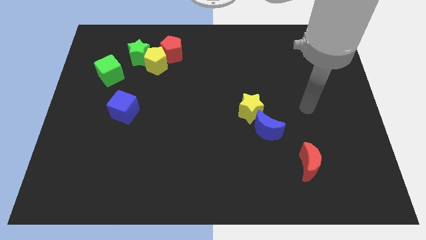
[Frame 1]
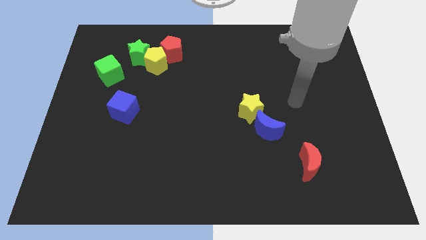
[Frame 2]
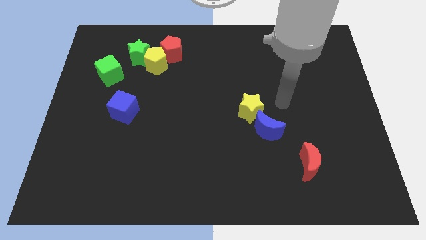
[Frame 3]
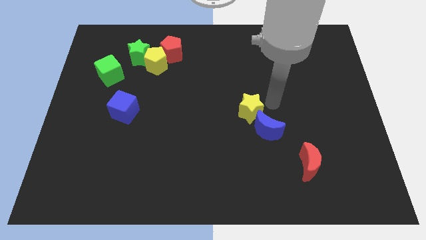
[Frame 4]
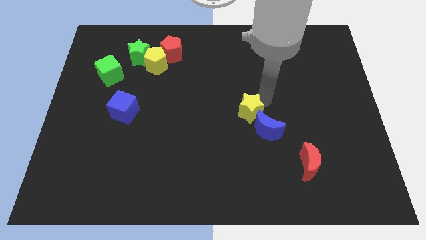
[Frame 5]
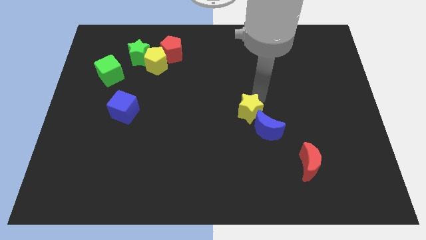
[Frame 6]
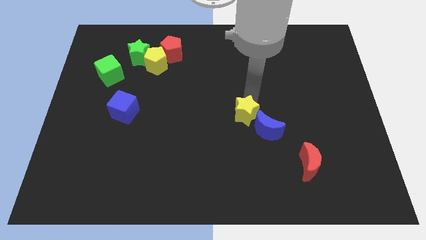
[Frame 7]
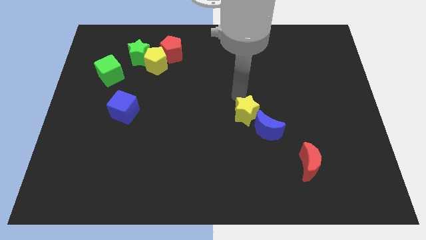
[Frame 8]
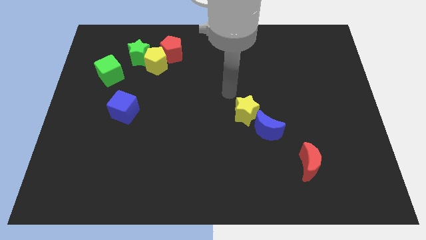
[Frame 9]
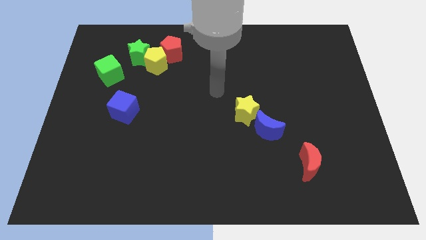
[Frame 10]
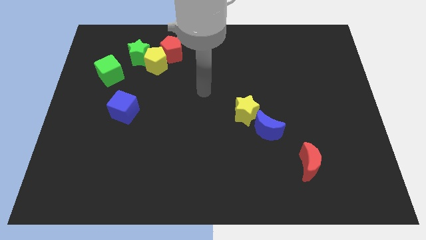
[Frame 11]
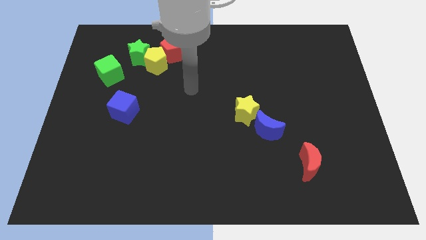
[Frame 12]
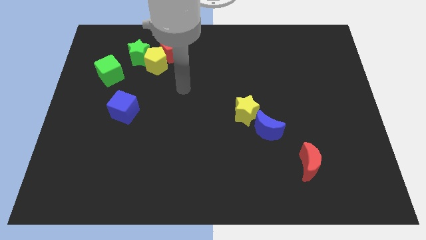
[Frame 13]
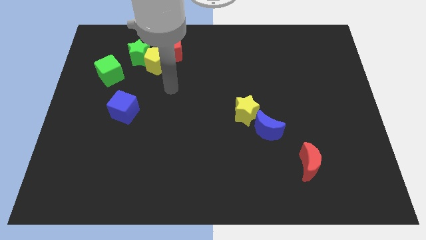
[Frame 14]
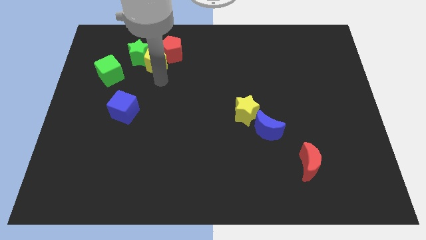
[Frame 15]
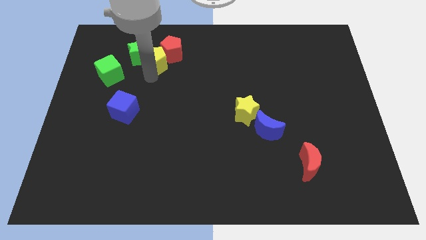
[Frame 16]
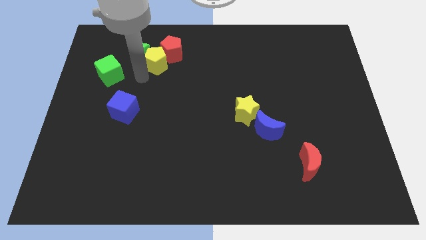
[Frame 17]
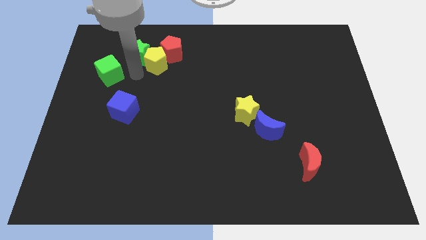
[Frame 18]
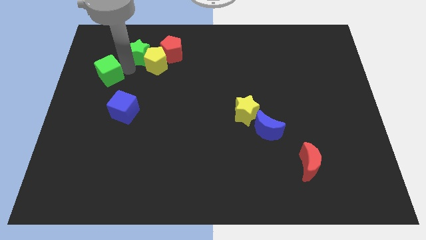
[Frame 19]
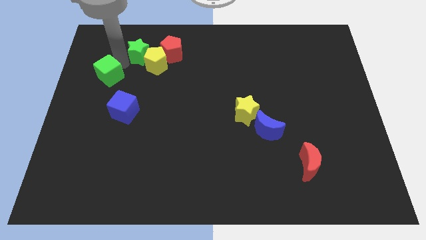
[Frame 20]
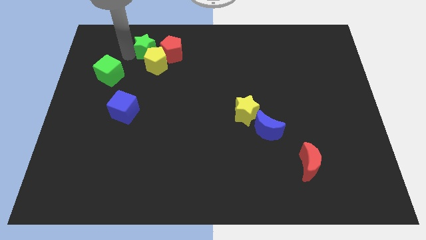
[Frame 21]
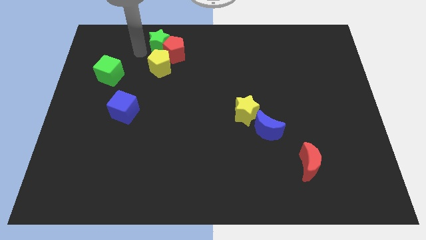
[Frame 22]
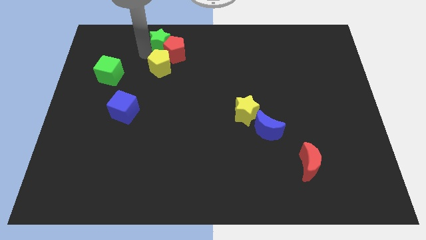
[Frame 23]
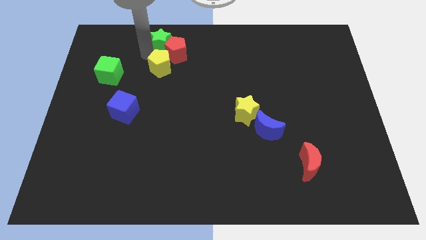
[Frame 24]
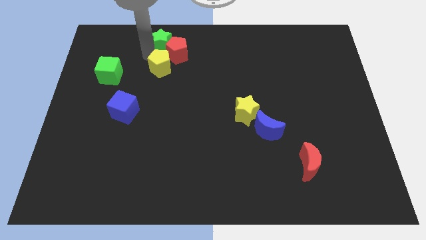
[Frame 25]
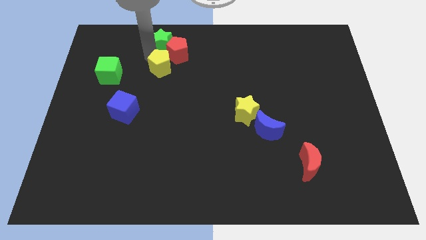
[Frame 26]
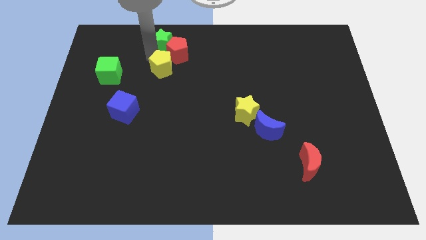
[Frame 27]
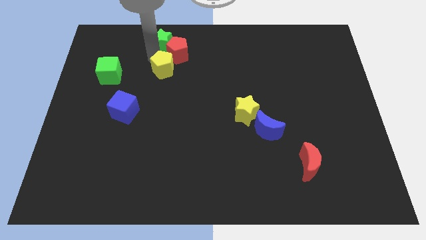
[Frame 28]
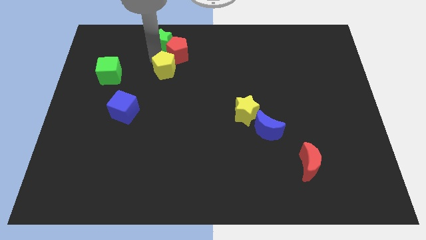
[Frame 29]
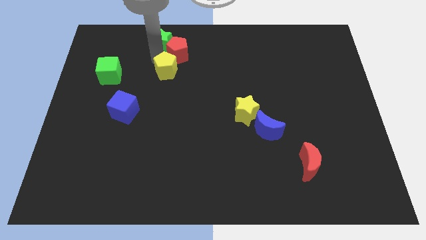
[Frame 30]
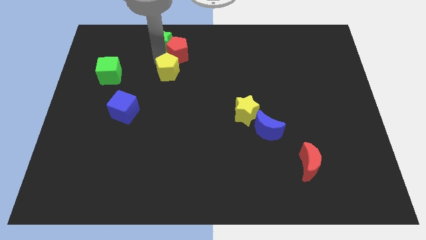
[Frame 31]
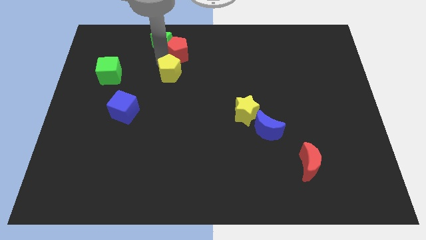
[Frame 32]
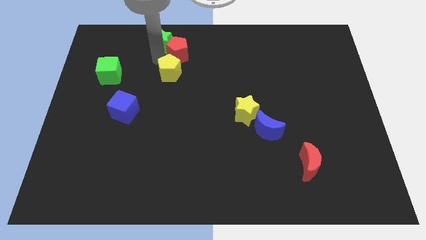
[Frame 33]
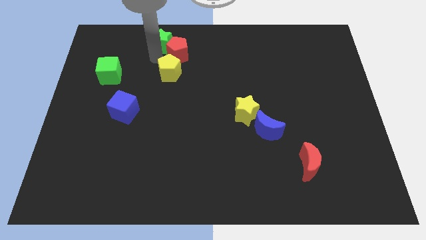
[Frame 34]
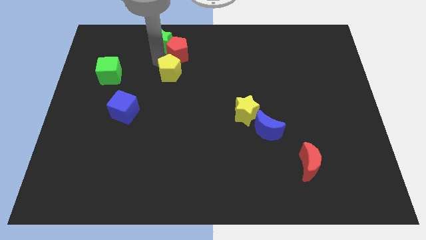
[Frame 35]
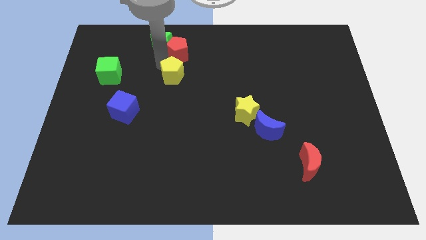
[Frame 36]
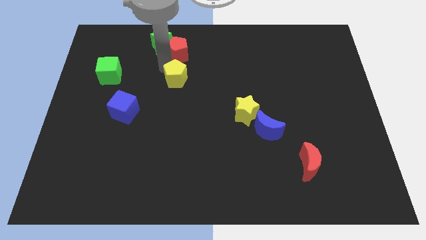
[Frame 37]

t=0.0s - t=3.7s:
slide the yellow pentagon down and to the right diagonally a bit

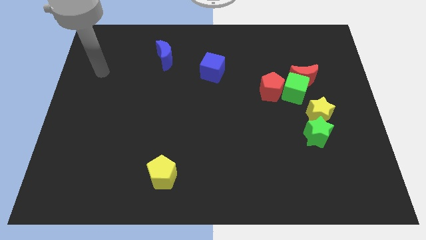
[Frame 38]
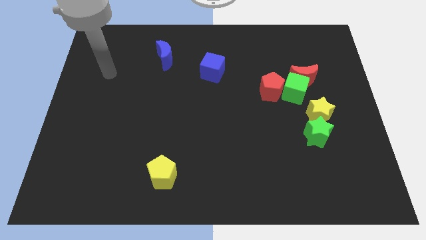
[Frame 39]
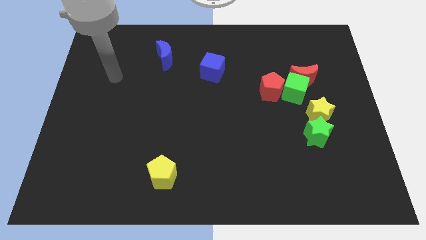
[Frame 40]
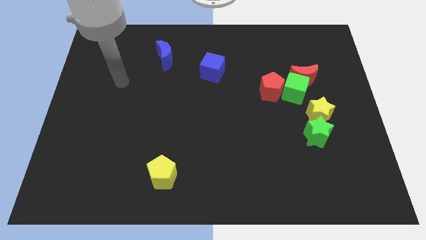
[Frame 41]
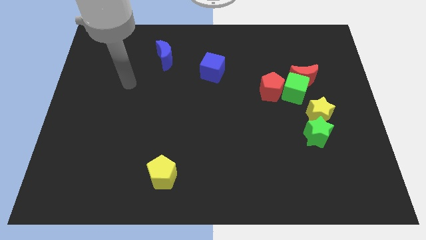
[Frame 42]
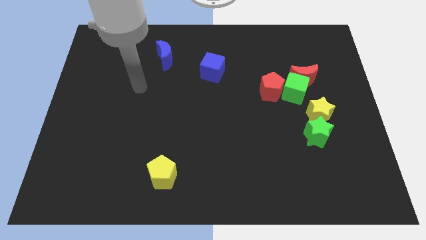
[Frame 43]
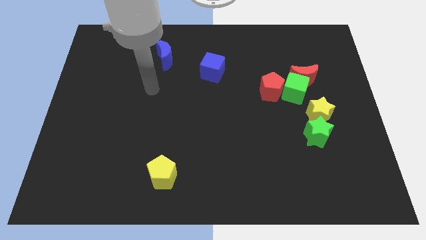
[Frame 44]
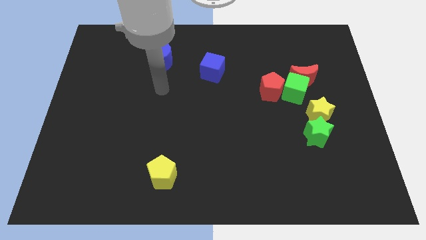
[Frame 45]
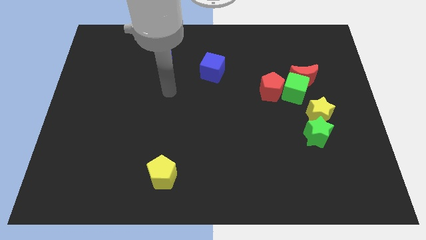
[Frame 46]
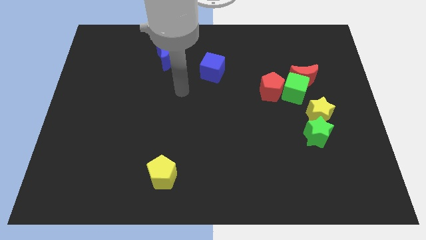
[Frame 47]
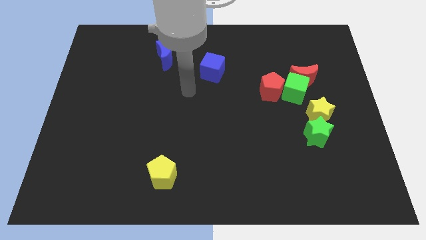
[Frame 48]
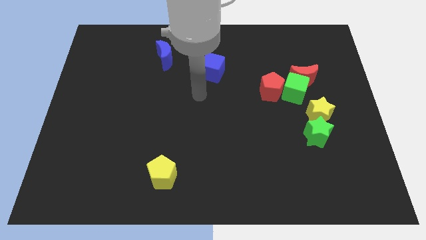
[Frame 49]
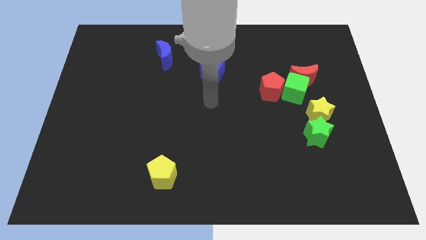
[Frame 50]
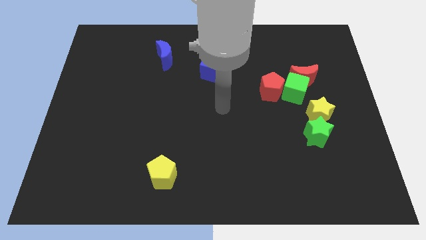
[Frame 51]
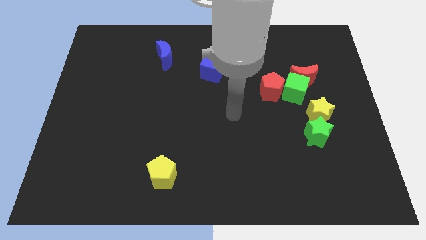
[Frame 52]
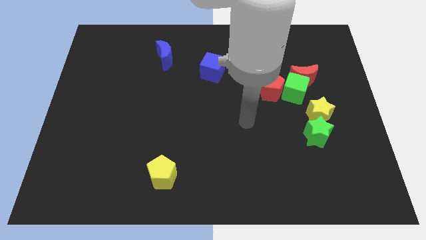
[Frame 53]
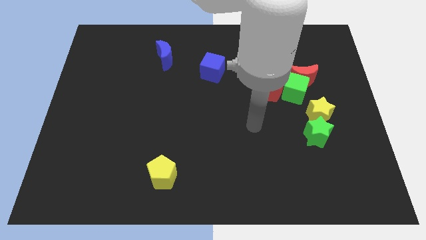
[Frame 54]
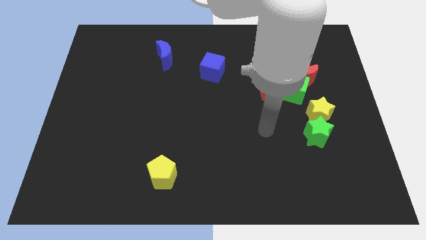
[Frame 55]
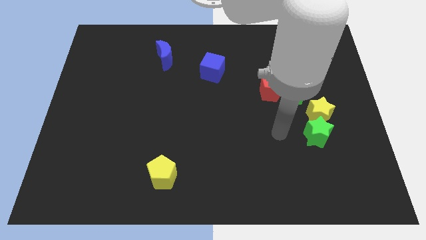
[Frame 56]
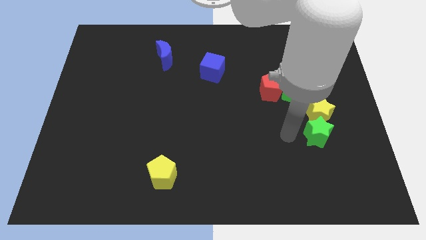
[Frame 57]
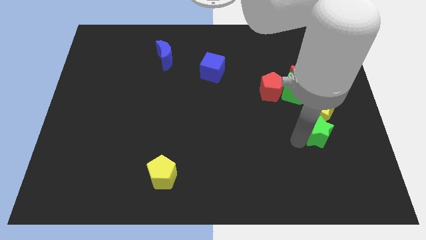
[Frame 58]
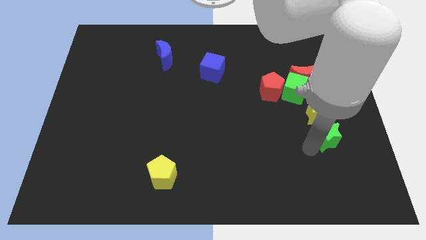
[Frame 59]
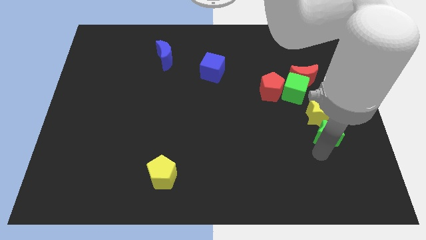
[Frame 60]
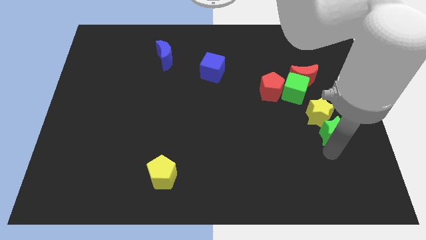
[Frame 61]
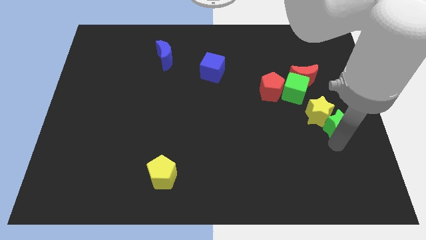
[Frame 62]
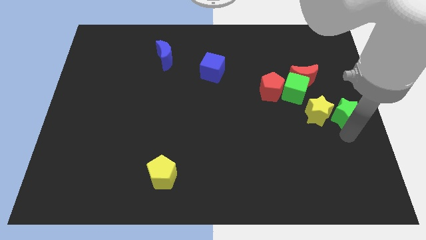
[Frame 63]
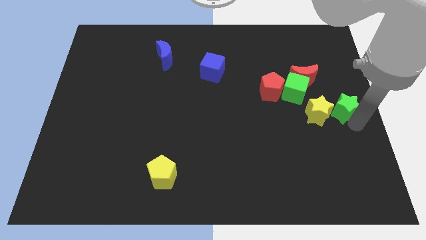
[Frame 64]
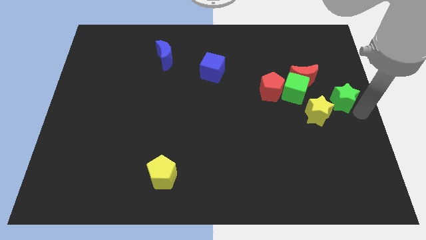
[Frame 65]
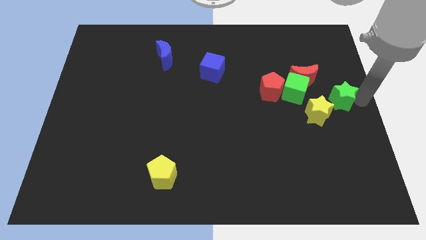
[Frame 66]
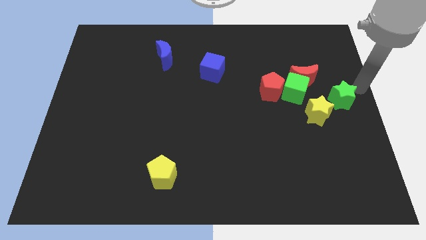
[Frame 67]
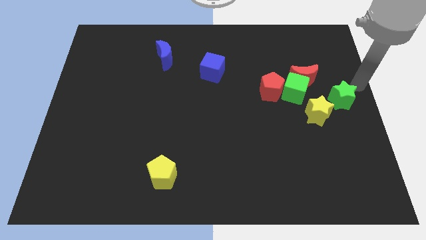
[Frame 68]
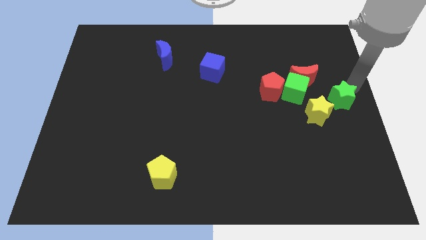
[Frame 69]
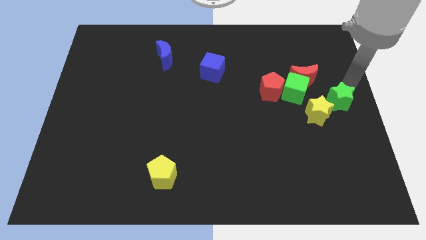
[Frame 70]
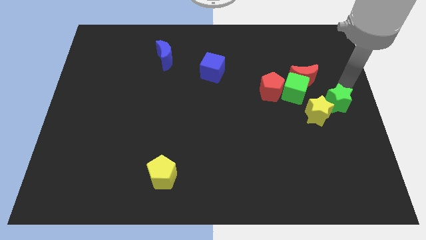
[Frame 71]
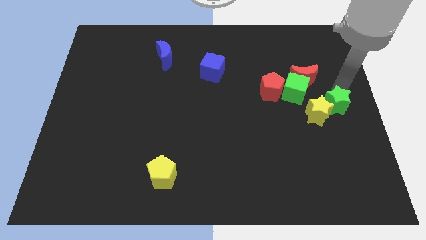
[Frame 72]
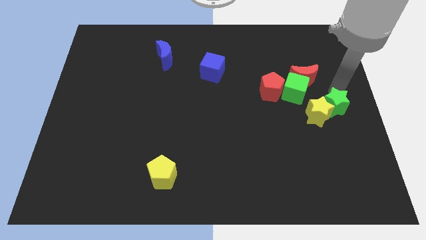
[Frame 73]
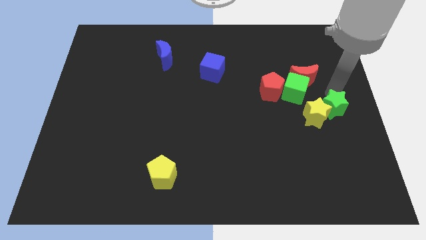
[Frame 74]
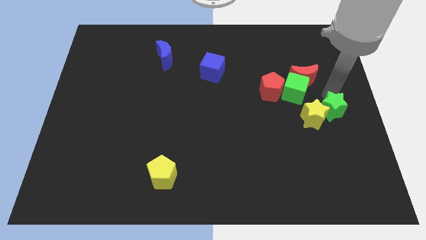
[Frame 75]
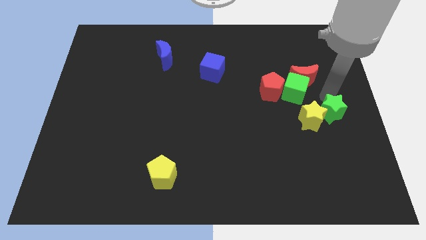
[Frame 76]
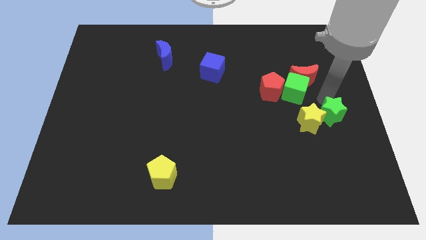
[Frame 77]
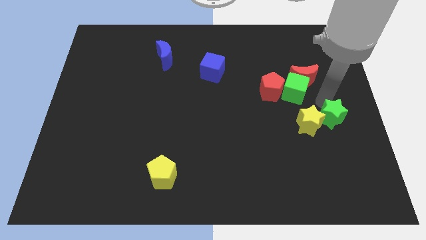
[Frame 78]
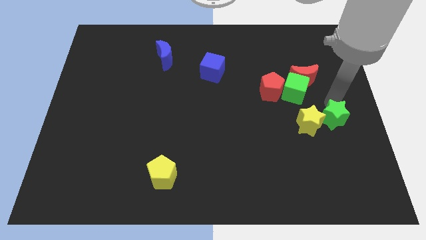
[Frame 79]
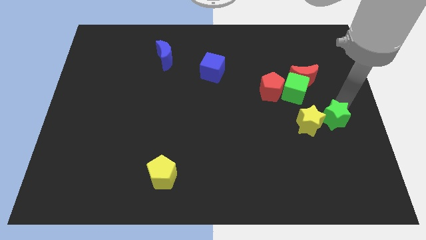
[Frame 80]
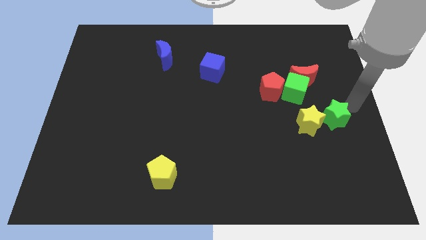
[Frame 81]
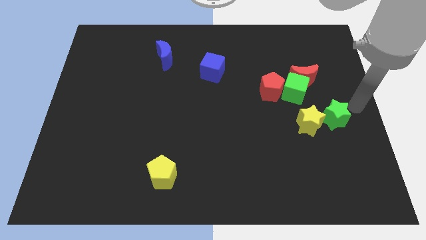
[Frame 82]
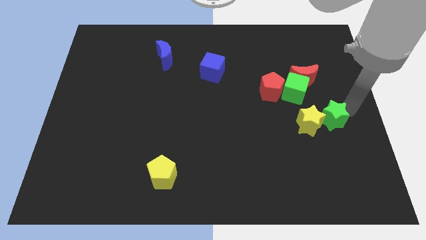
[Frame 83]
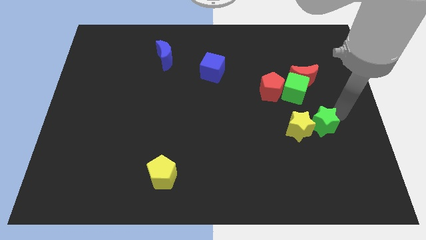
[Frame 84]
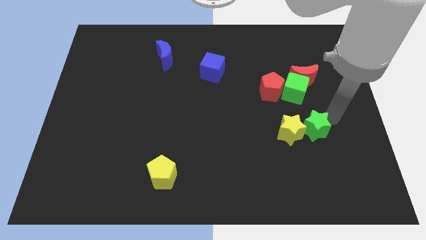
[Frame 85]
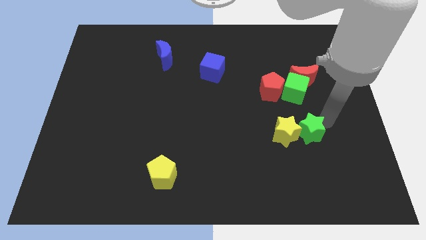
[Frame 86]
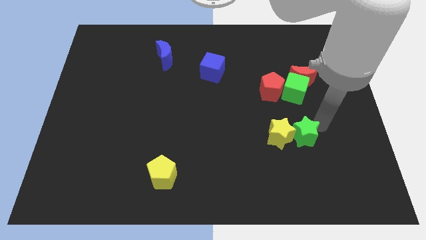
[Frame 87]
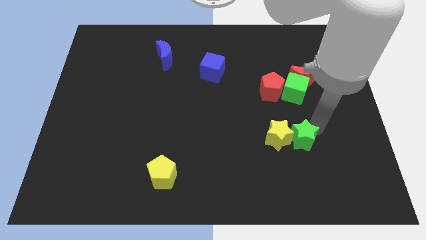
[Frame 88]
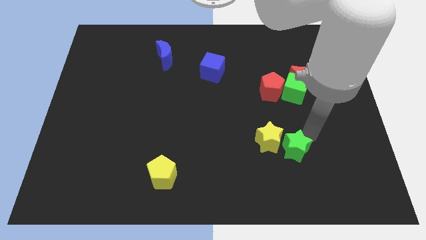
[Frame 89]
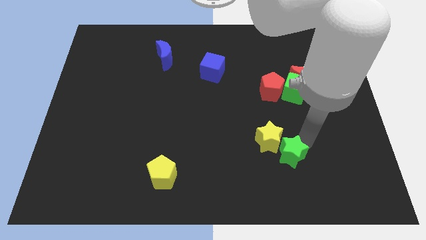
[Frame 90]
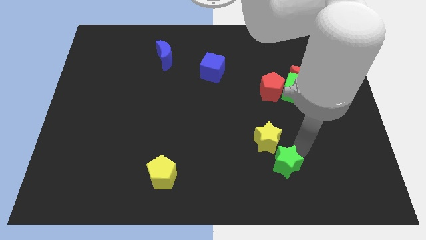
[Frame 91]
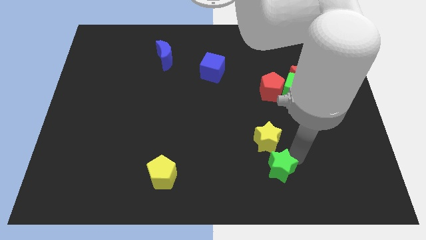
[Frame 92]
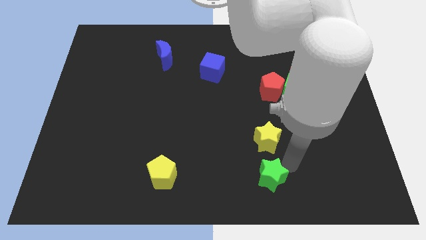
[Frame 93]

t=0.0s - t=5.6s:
move the green star left somewhat
